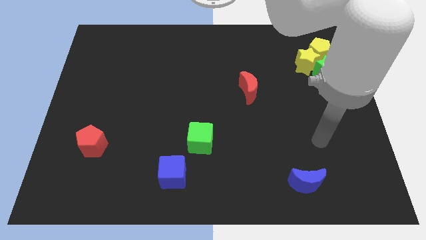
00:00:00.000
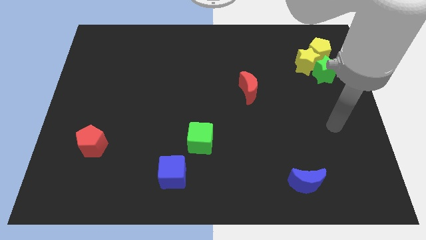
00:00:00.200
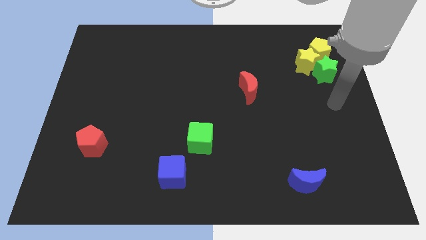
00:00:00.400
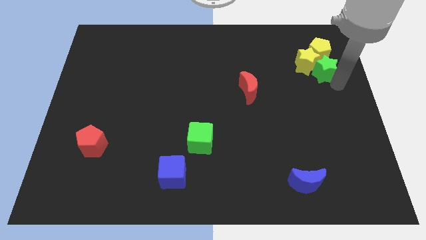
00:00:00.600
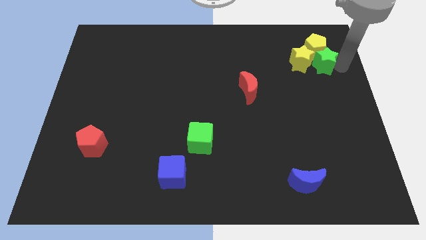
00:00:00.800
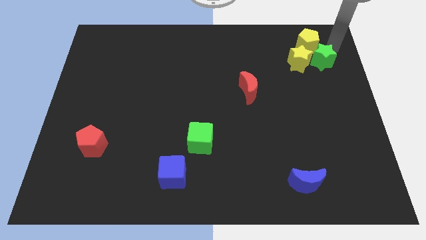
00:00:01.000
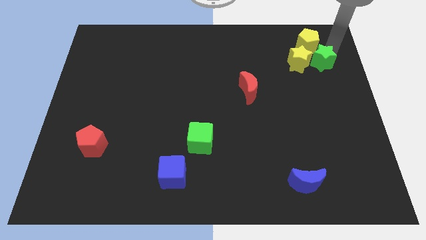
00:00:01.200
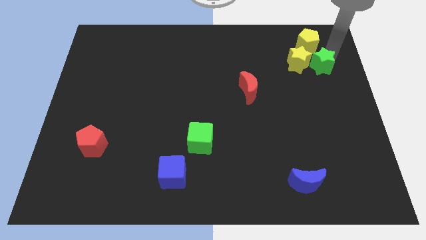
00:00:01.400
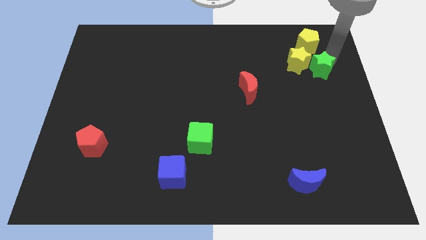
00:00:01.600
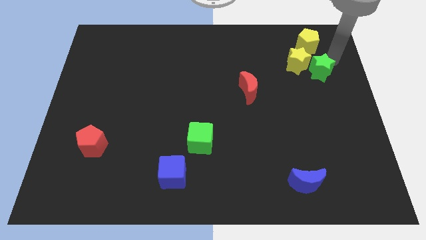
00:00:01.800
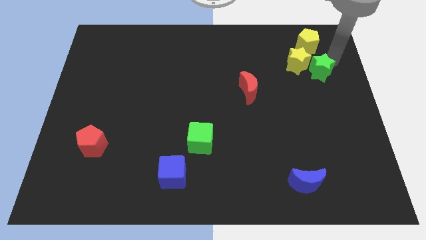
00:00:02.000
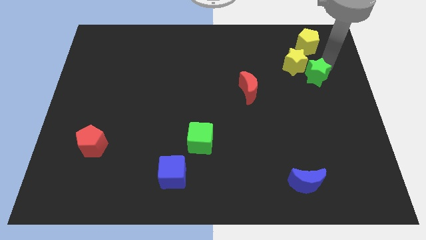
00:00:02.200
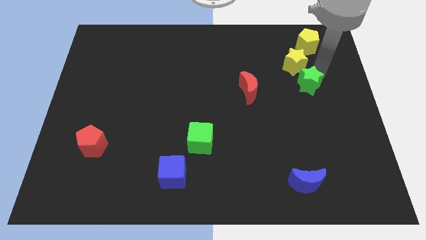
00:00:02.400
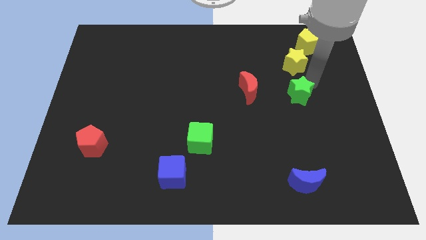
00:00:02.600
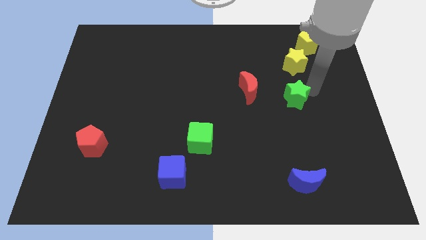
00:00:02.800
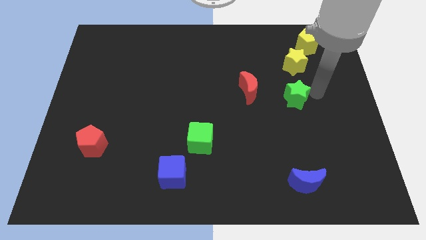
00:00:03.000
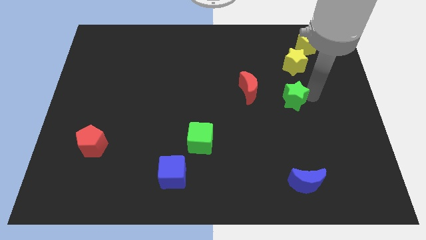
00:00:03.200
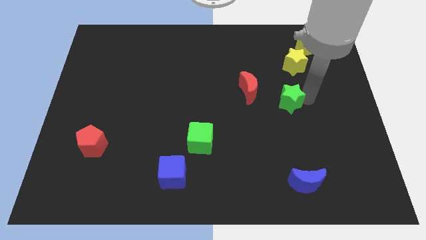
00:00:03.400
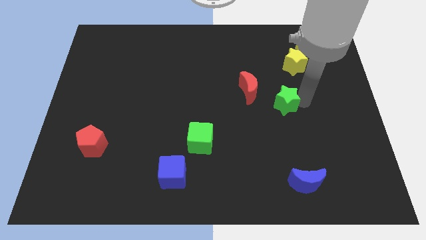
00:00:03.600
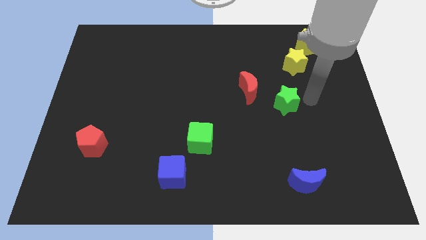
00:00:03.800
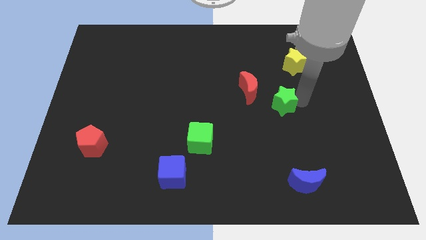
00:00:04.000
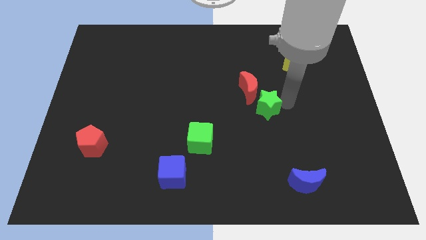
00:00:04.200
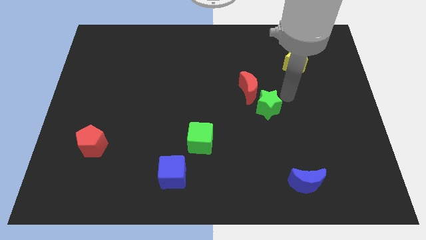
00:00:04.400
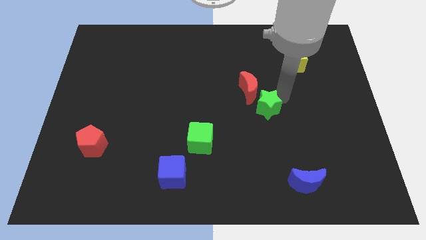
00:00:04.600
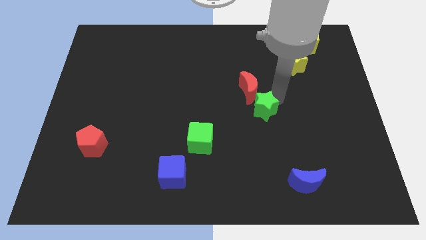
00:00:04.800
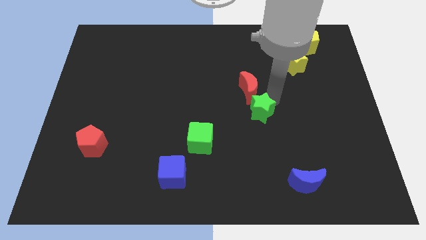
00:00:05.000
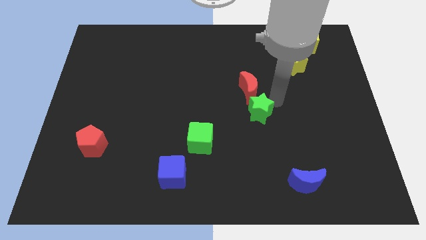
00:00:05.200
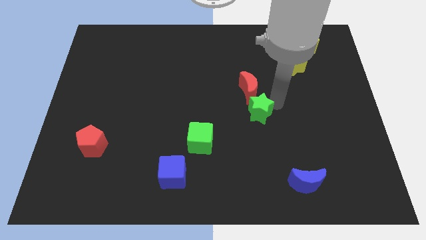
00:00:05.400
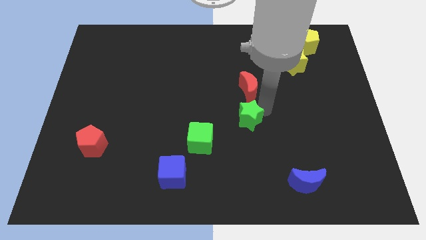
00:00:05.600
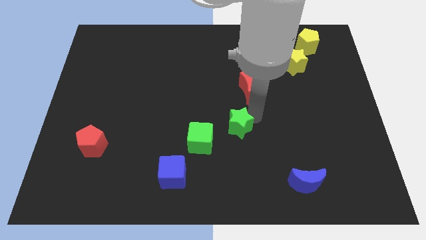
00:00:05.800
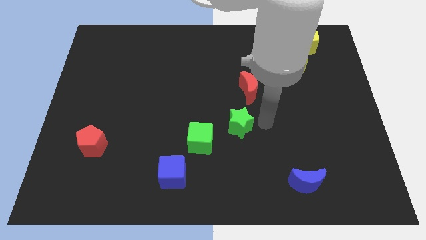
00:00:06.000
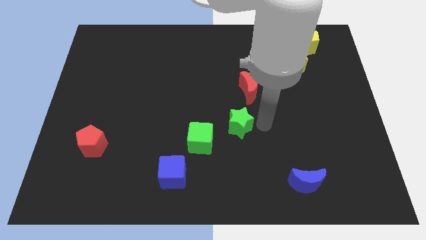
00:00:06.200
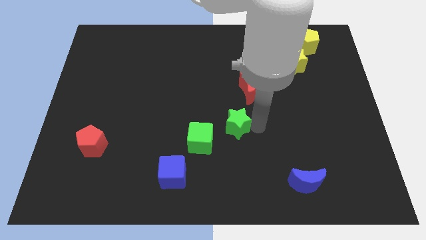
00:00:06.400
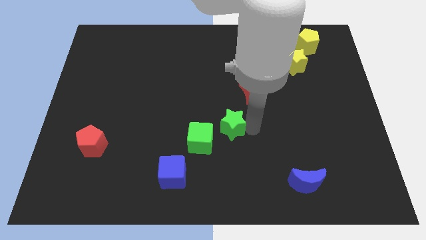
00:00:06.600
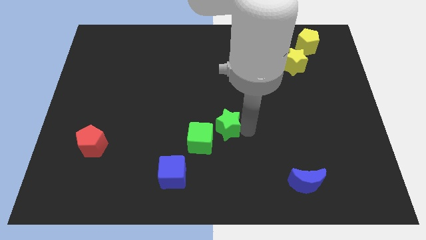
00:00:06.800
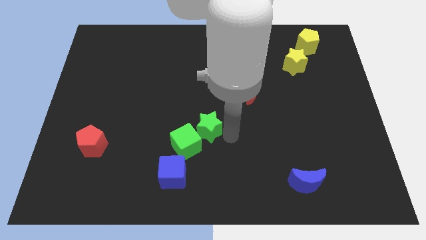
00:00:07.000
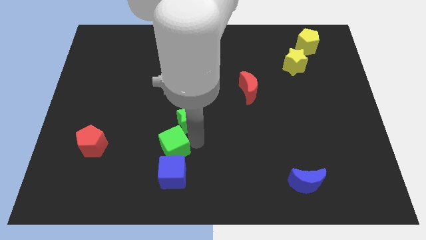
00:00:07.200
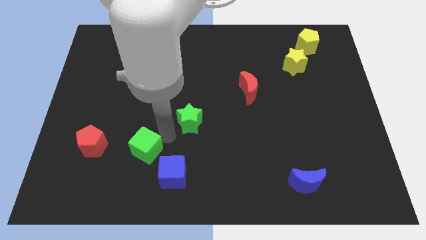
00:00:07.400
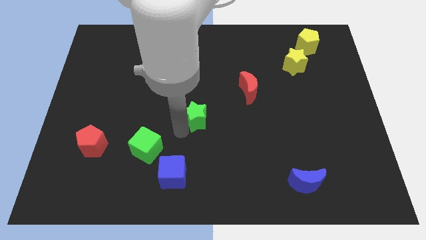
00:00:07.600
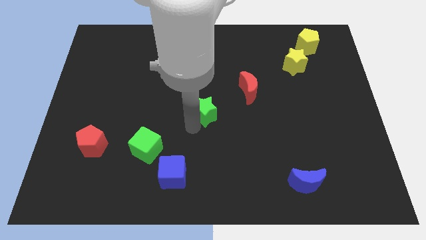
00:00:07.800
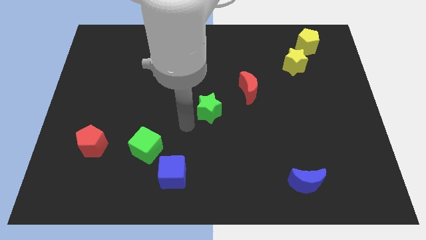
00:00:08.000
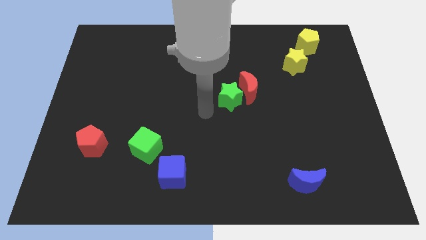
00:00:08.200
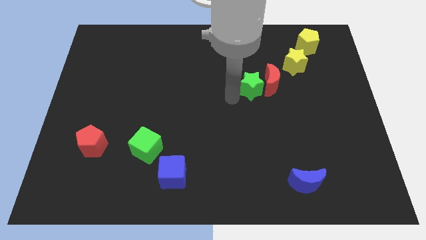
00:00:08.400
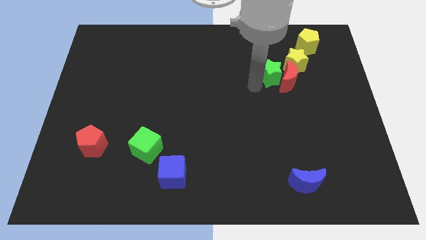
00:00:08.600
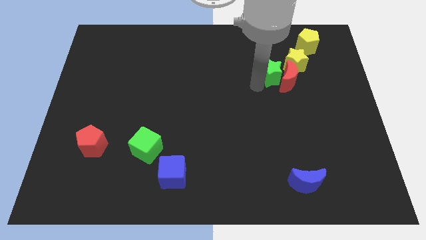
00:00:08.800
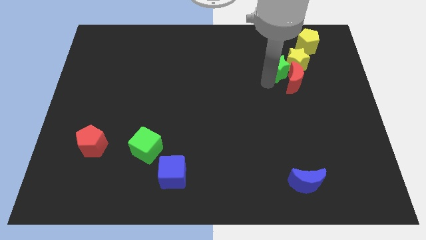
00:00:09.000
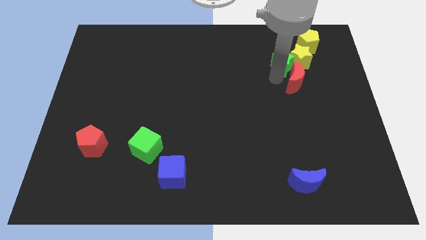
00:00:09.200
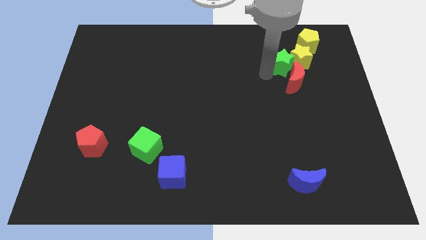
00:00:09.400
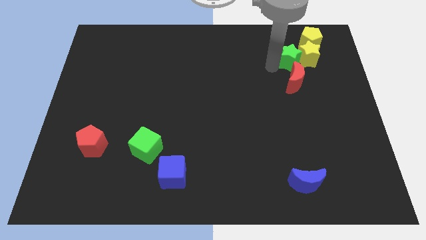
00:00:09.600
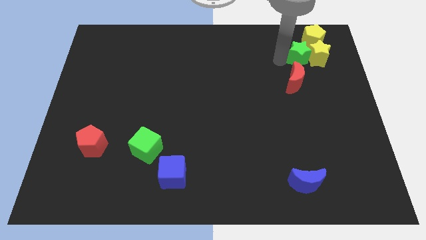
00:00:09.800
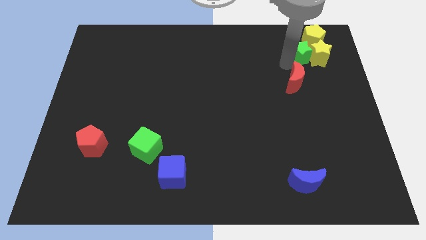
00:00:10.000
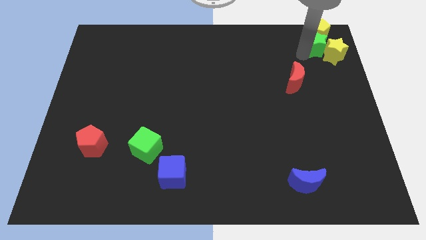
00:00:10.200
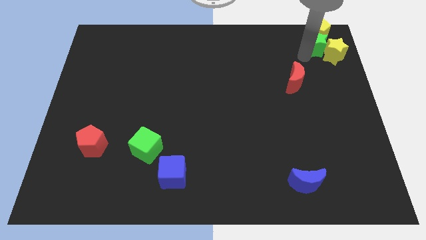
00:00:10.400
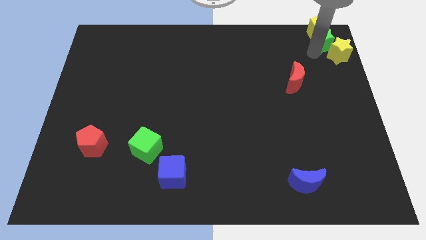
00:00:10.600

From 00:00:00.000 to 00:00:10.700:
push the green star to the top right

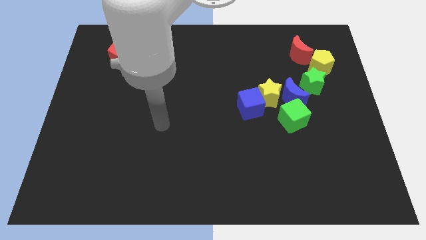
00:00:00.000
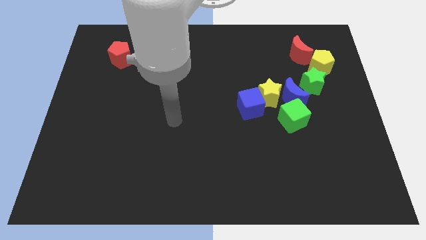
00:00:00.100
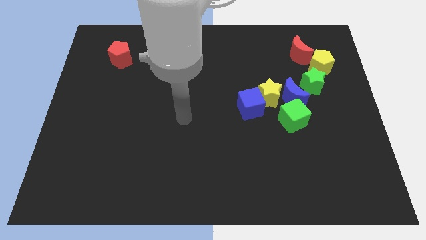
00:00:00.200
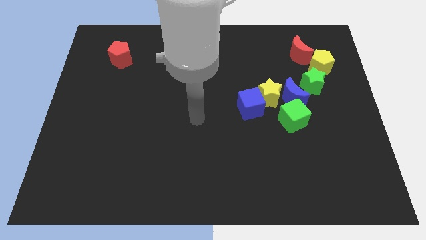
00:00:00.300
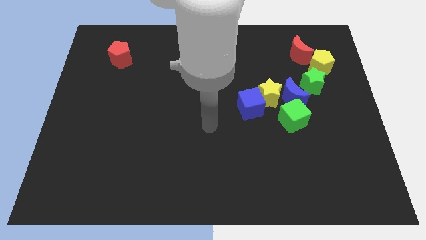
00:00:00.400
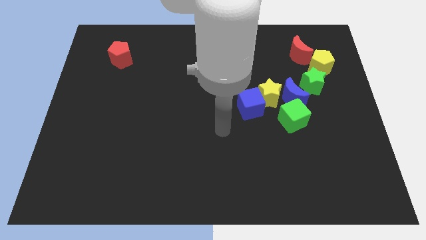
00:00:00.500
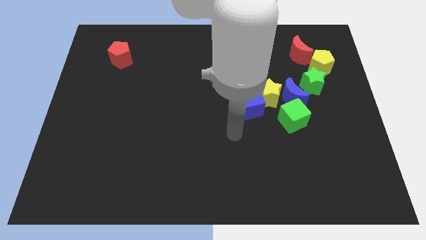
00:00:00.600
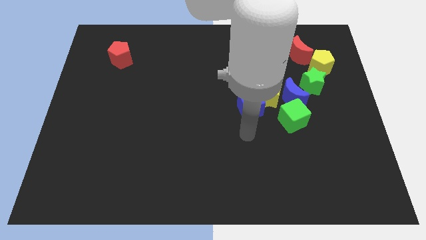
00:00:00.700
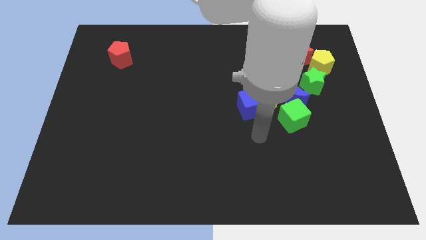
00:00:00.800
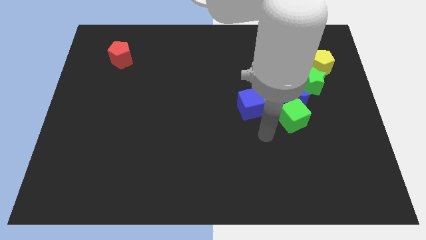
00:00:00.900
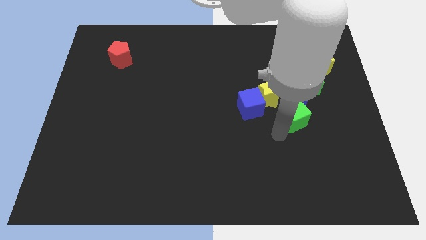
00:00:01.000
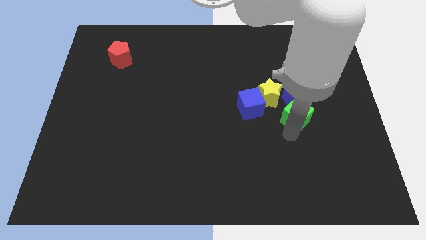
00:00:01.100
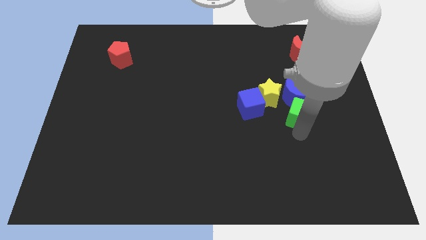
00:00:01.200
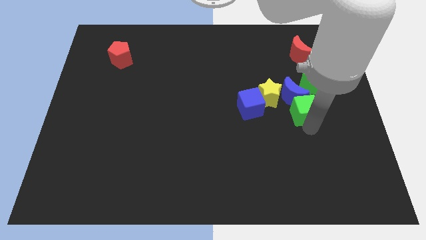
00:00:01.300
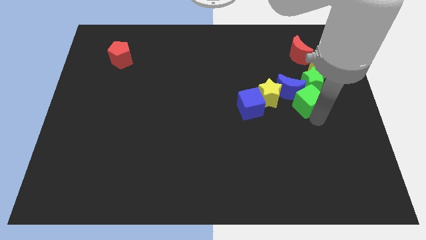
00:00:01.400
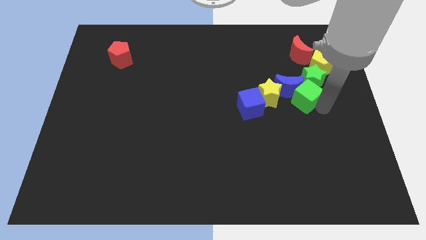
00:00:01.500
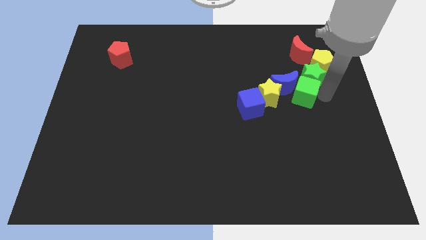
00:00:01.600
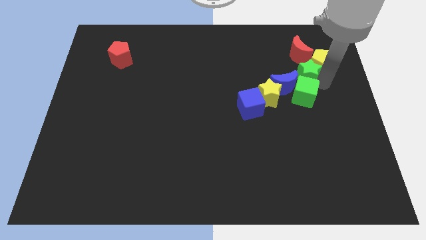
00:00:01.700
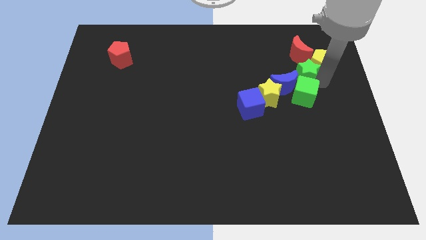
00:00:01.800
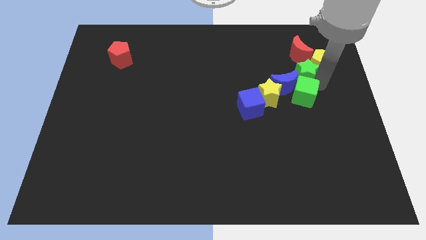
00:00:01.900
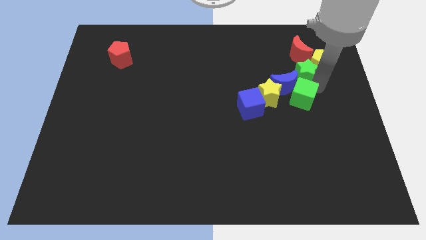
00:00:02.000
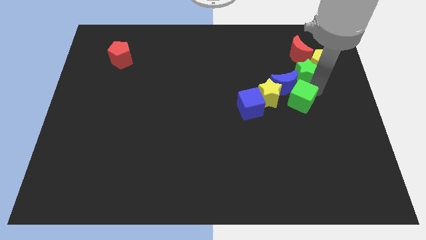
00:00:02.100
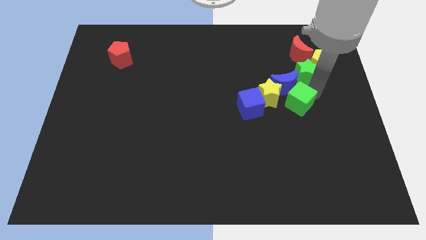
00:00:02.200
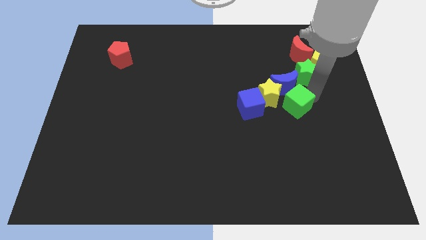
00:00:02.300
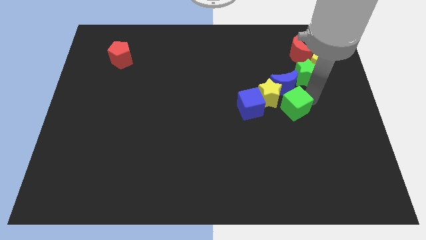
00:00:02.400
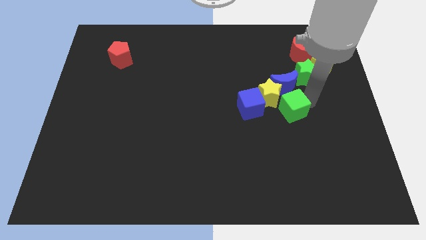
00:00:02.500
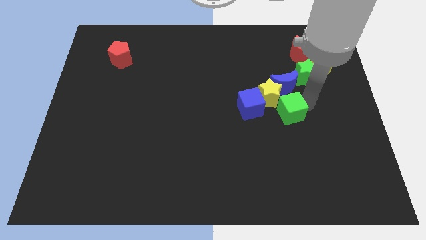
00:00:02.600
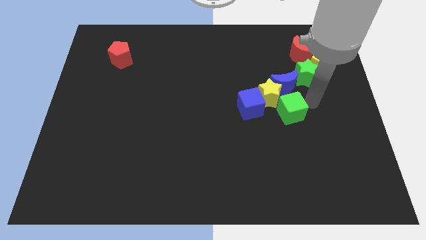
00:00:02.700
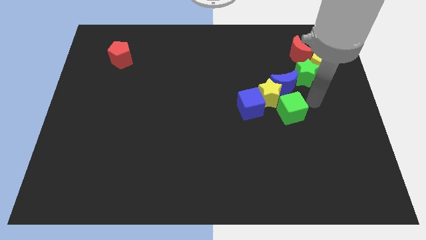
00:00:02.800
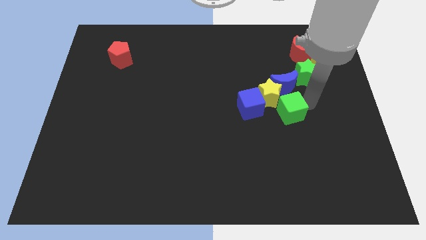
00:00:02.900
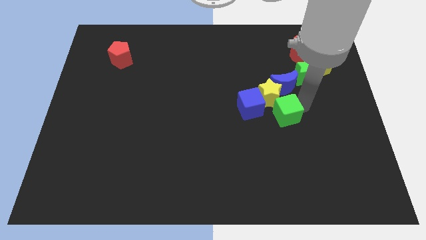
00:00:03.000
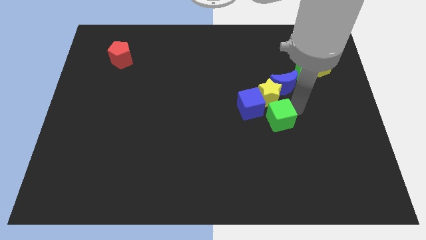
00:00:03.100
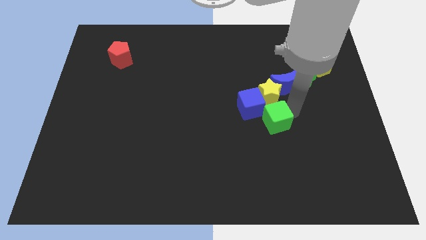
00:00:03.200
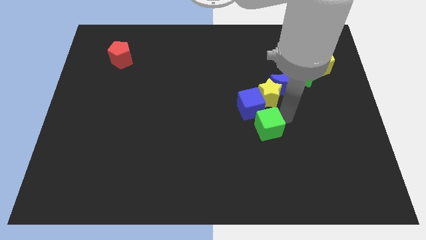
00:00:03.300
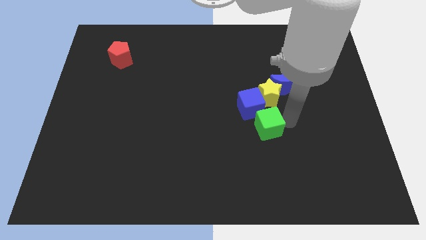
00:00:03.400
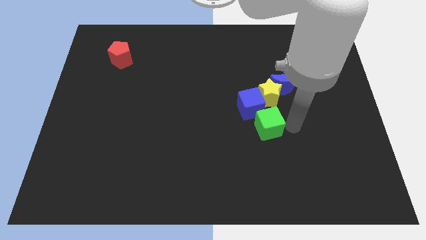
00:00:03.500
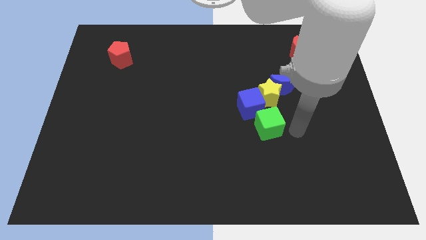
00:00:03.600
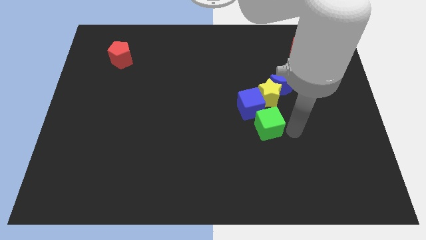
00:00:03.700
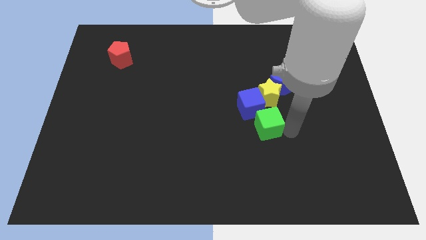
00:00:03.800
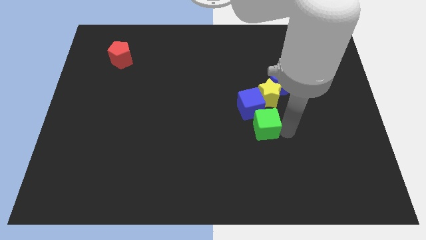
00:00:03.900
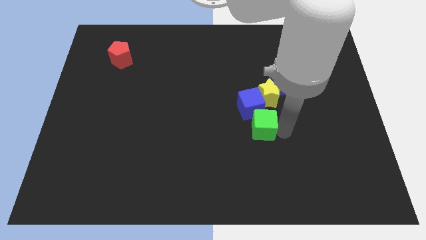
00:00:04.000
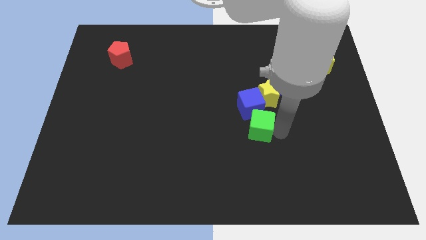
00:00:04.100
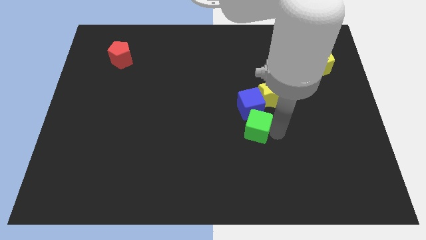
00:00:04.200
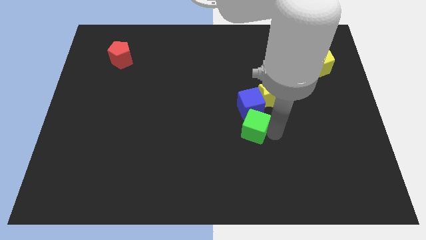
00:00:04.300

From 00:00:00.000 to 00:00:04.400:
push the green cube to the middle
